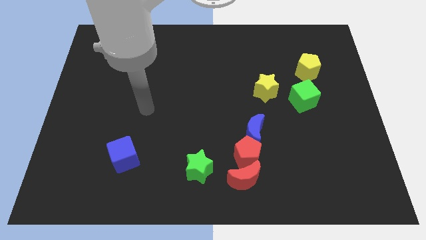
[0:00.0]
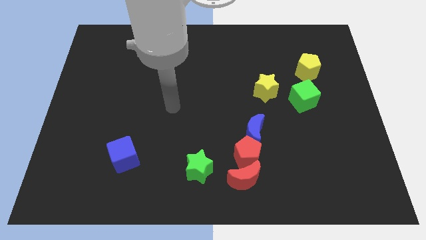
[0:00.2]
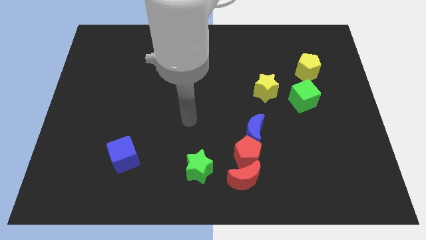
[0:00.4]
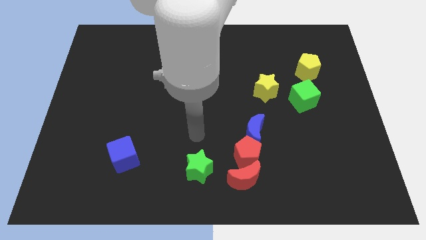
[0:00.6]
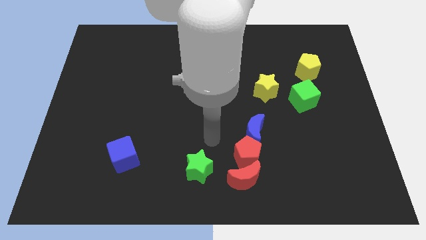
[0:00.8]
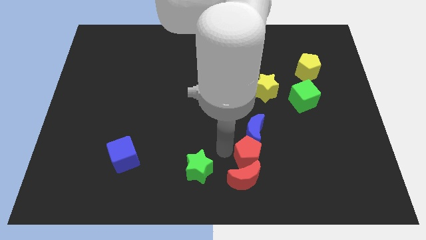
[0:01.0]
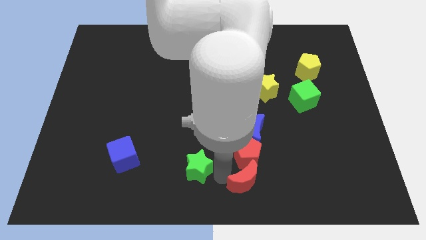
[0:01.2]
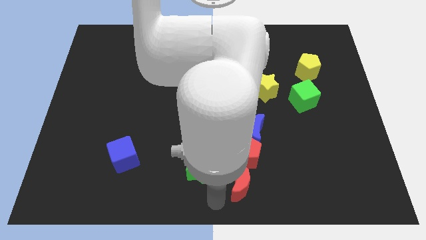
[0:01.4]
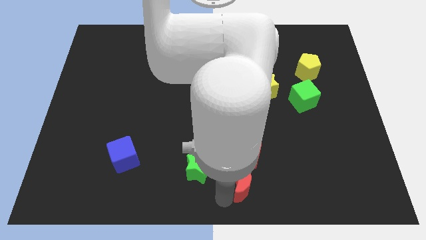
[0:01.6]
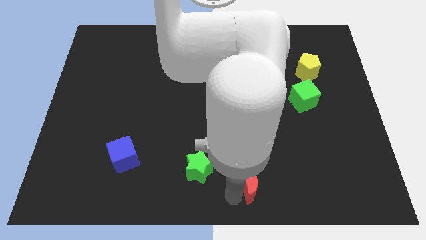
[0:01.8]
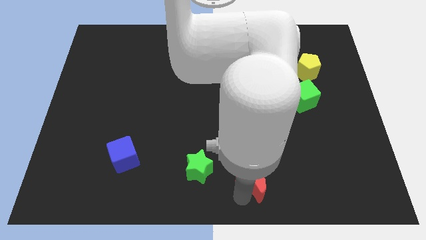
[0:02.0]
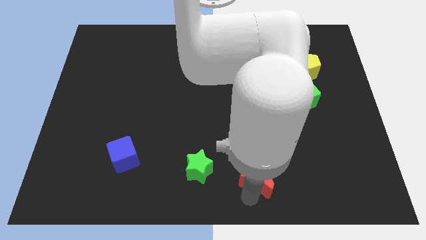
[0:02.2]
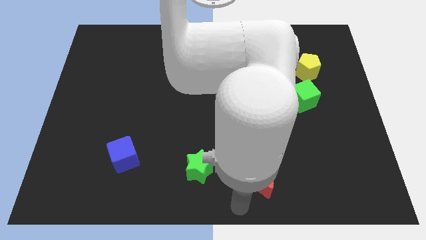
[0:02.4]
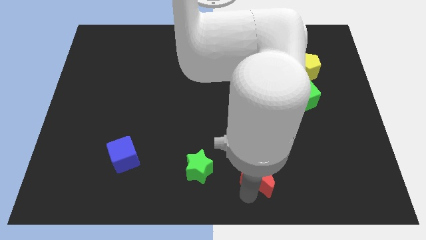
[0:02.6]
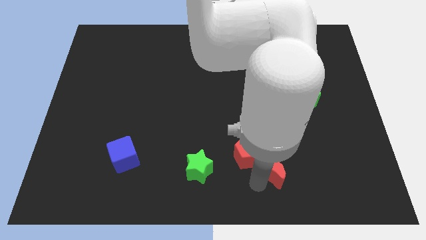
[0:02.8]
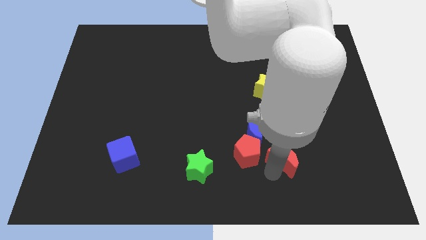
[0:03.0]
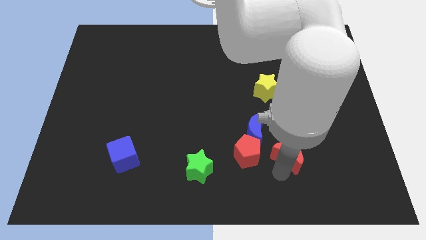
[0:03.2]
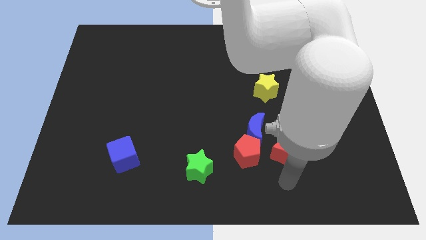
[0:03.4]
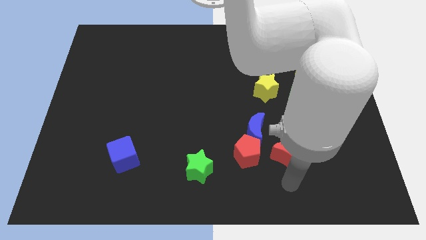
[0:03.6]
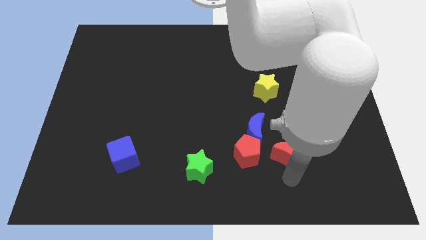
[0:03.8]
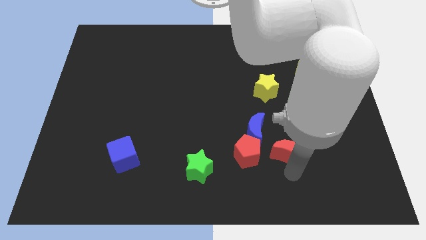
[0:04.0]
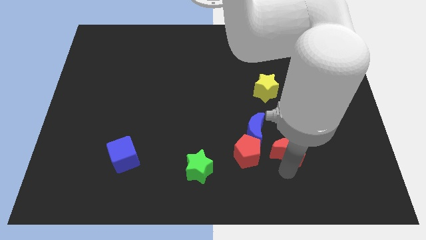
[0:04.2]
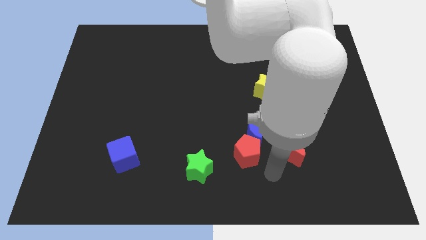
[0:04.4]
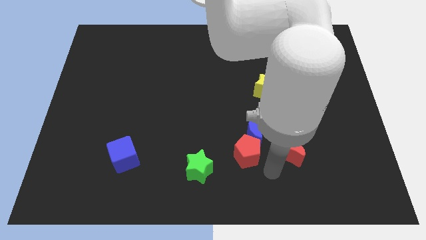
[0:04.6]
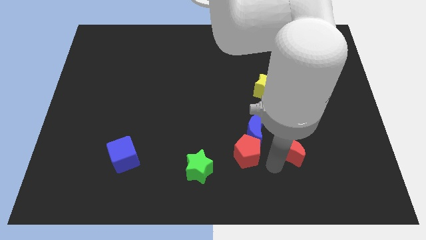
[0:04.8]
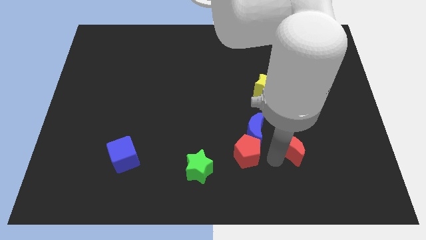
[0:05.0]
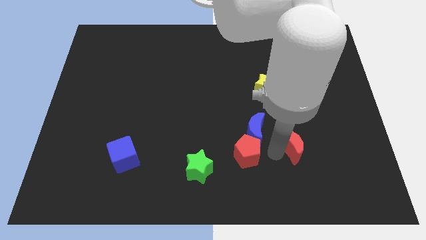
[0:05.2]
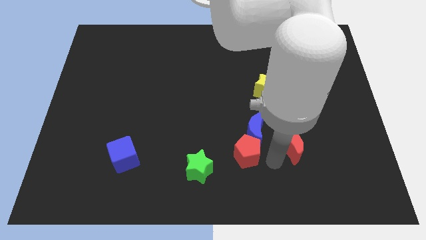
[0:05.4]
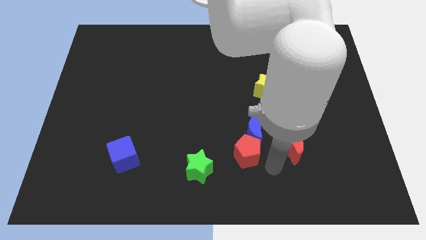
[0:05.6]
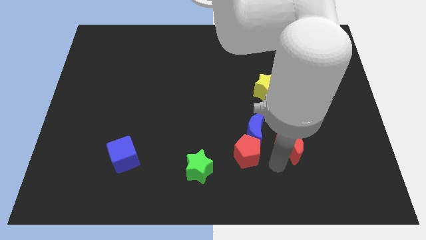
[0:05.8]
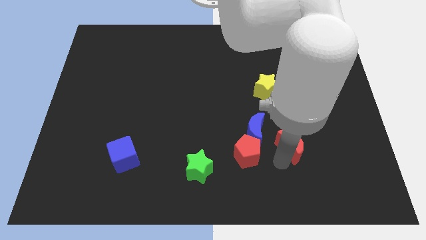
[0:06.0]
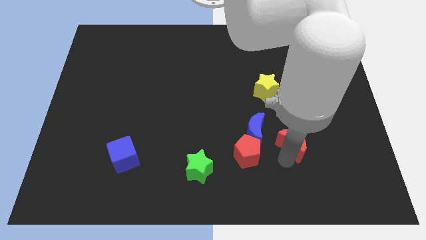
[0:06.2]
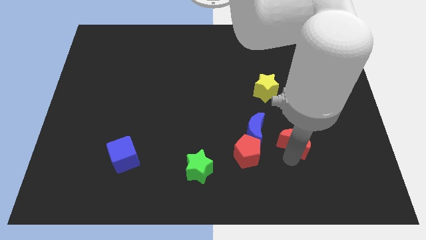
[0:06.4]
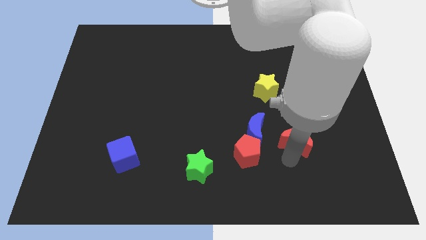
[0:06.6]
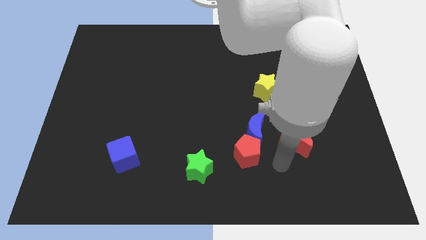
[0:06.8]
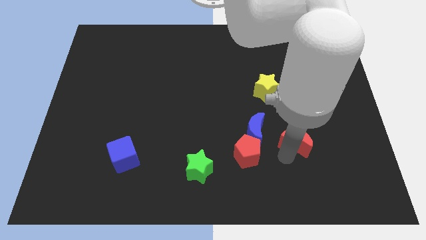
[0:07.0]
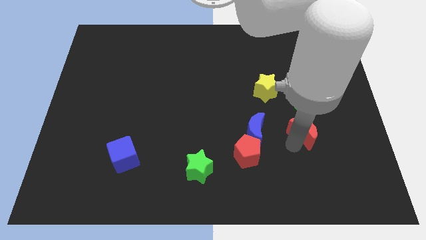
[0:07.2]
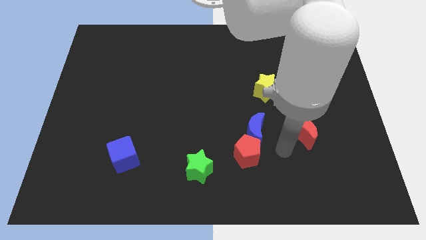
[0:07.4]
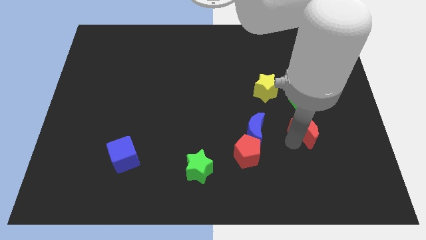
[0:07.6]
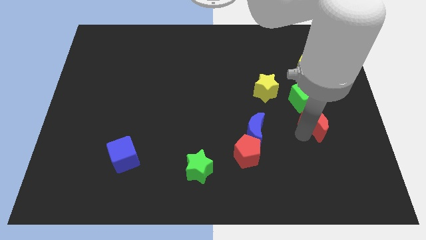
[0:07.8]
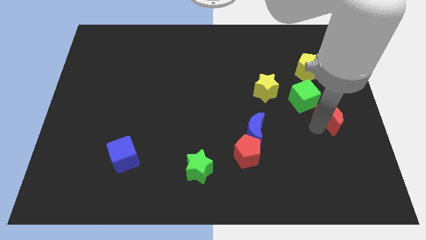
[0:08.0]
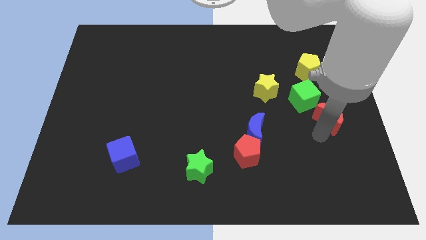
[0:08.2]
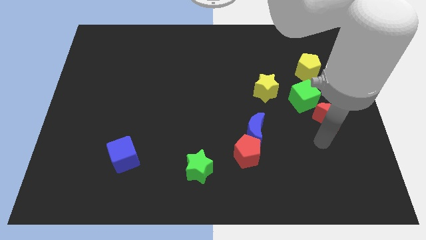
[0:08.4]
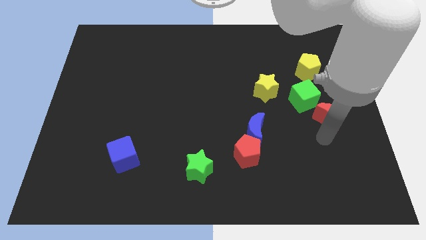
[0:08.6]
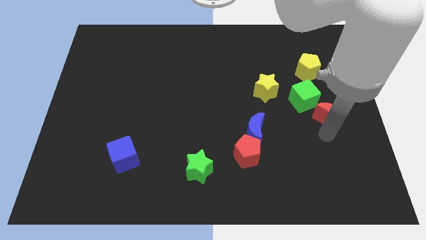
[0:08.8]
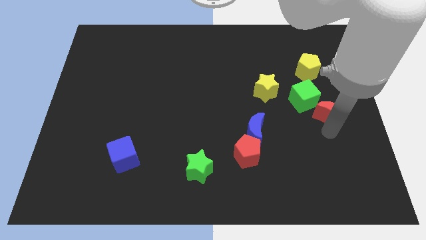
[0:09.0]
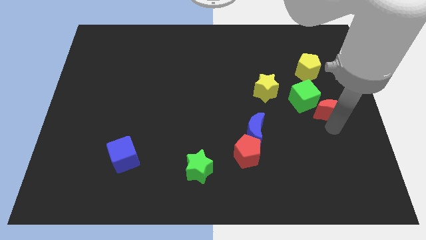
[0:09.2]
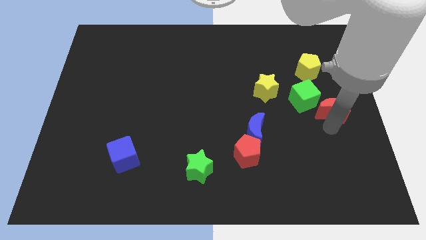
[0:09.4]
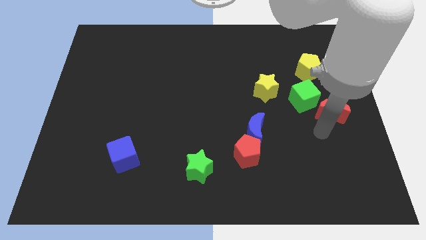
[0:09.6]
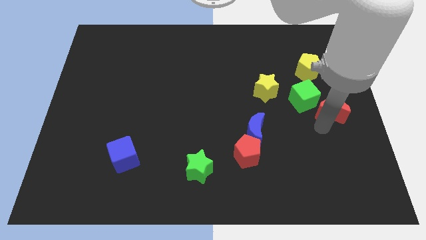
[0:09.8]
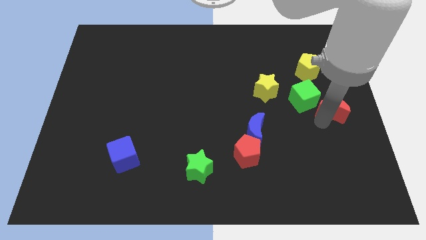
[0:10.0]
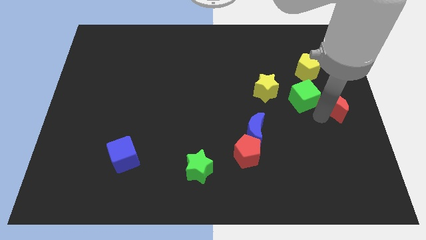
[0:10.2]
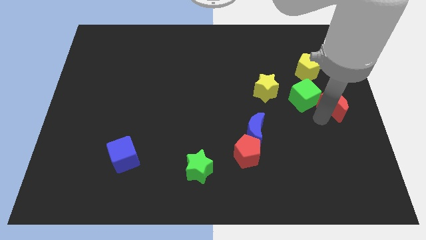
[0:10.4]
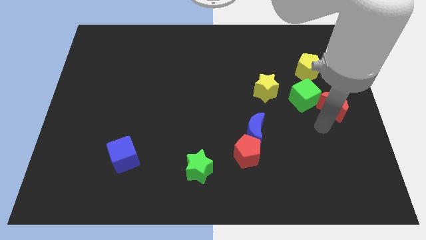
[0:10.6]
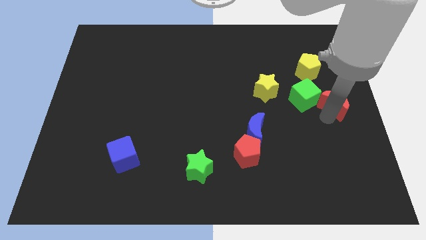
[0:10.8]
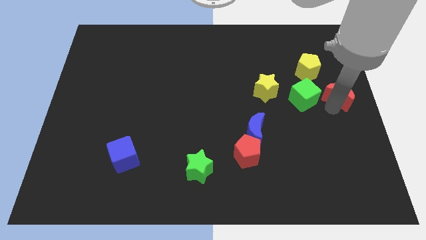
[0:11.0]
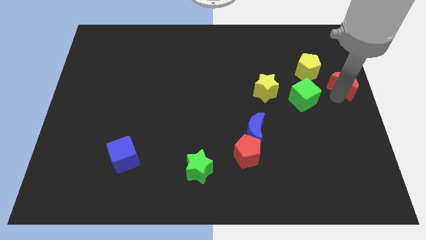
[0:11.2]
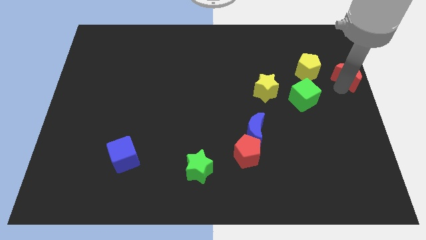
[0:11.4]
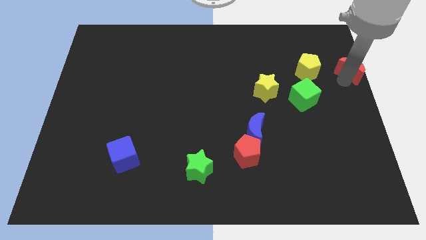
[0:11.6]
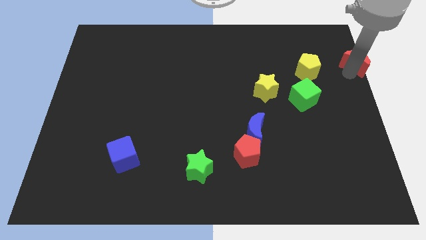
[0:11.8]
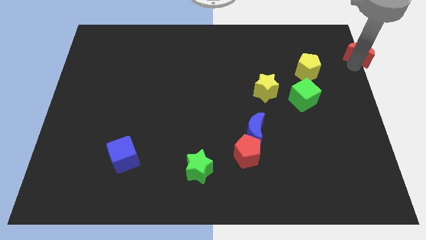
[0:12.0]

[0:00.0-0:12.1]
slide the red moon to the upper right corner

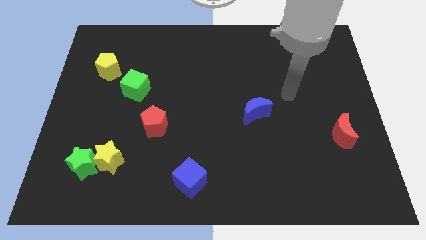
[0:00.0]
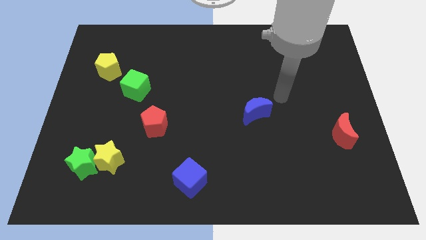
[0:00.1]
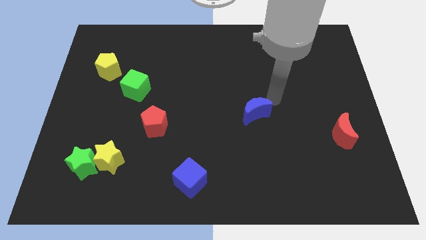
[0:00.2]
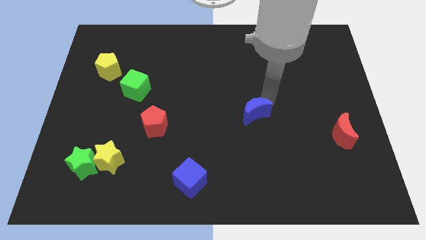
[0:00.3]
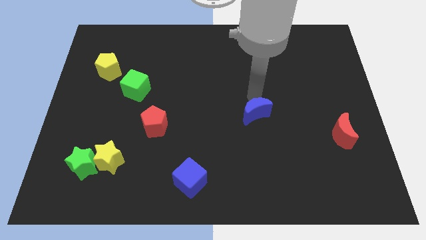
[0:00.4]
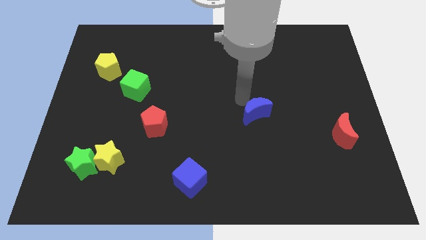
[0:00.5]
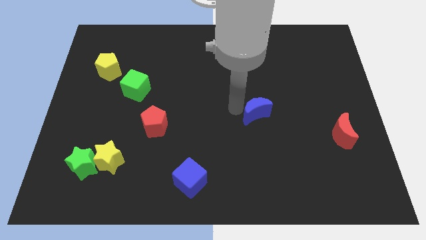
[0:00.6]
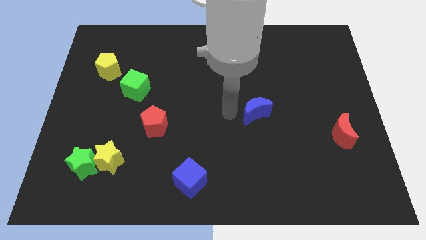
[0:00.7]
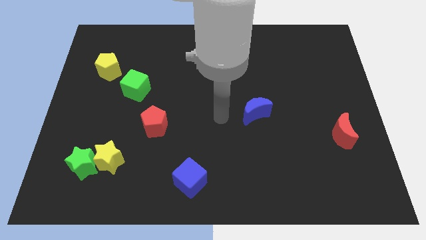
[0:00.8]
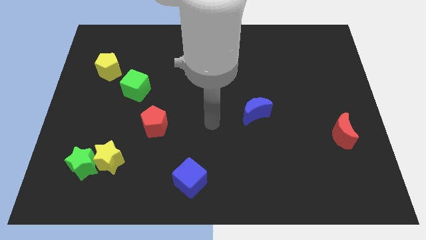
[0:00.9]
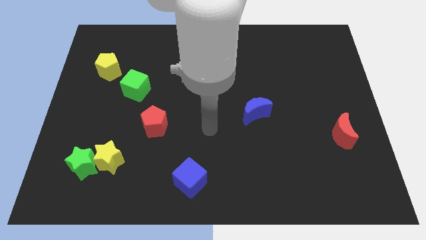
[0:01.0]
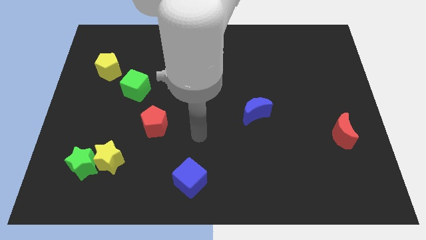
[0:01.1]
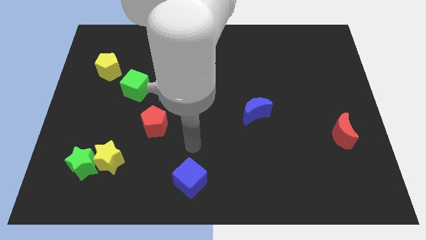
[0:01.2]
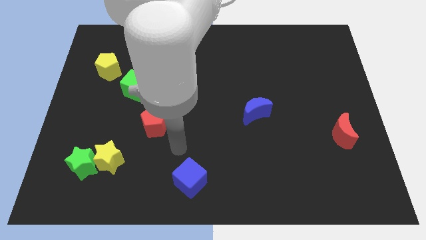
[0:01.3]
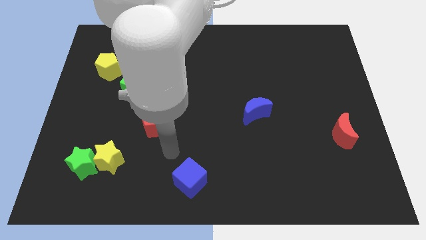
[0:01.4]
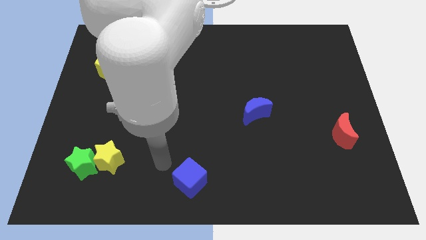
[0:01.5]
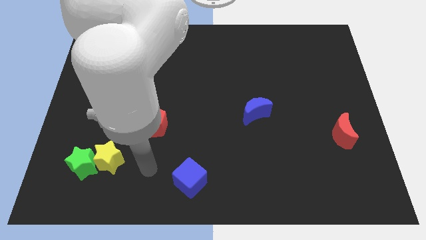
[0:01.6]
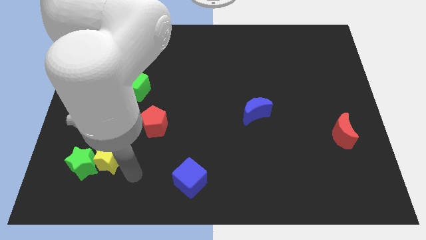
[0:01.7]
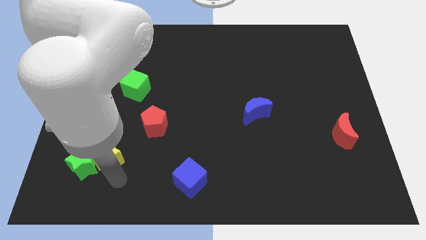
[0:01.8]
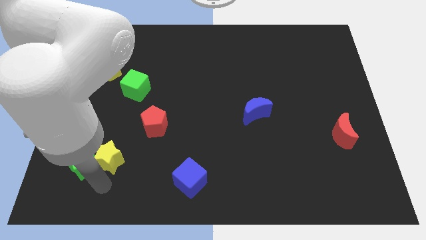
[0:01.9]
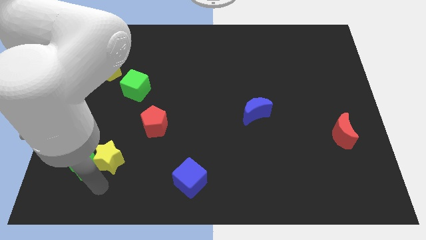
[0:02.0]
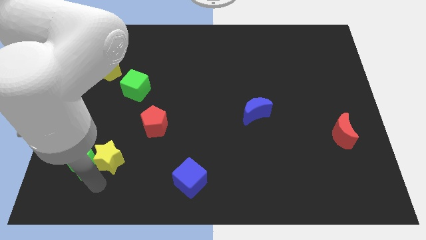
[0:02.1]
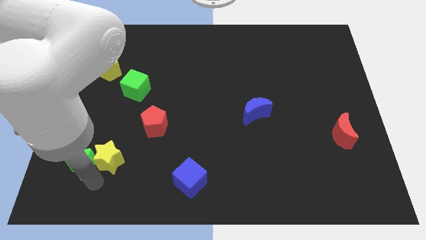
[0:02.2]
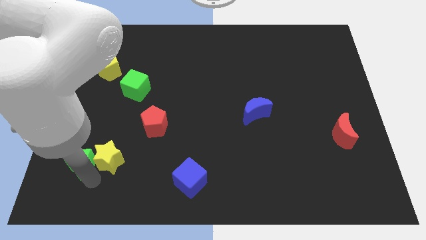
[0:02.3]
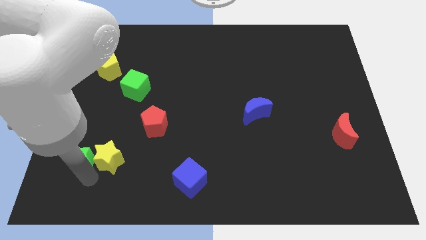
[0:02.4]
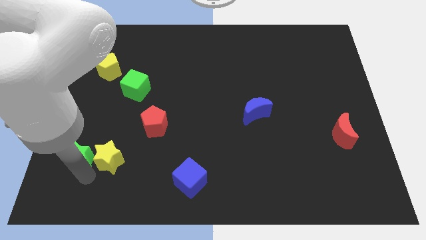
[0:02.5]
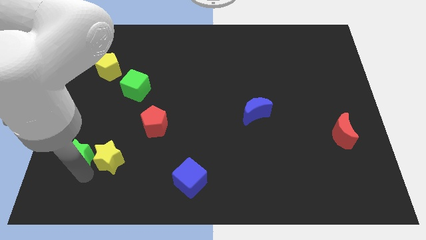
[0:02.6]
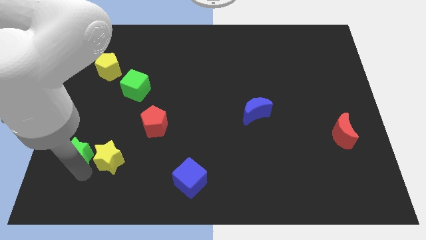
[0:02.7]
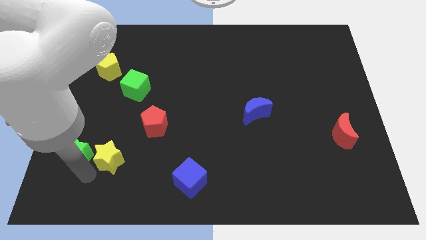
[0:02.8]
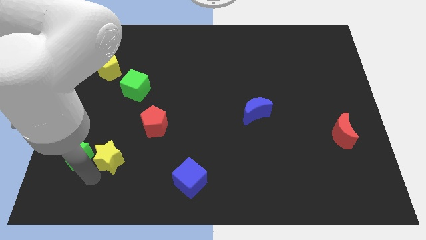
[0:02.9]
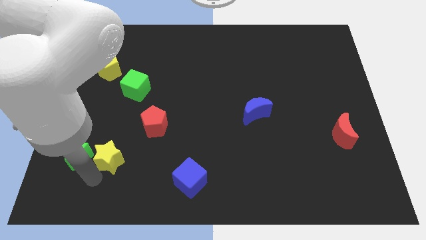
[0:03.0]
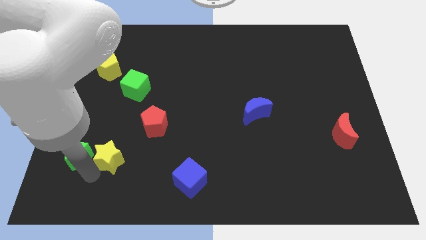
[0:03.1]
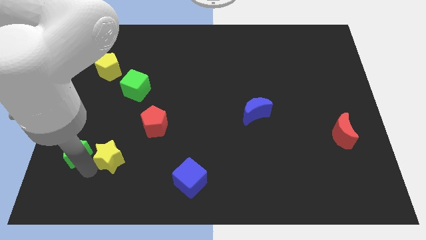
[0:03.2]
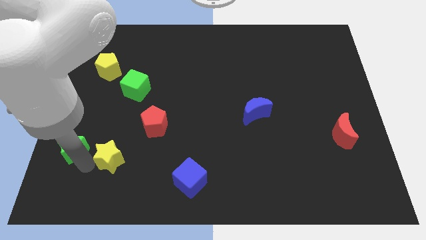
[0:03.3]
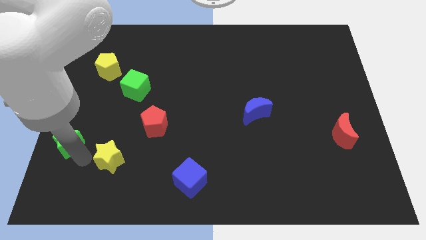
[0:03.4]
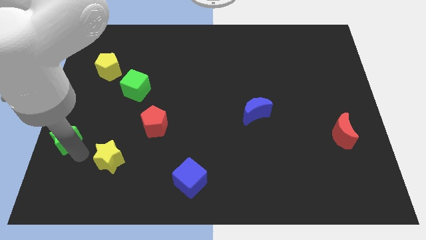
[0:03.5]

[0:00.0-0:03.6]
put the green star to the center left
